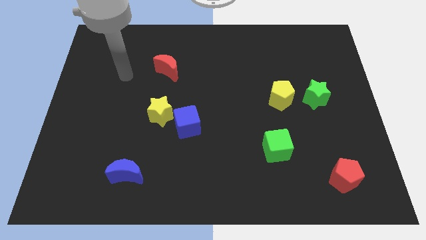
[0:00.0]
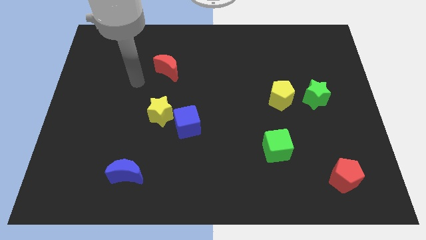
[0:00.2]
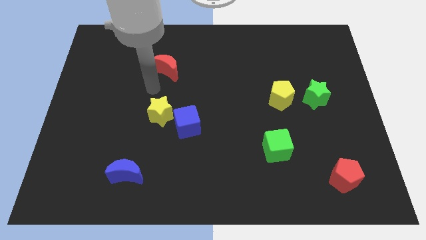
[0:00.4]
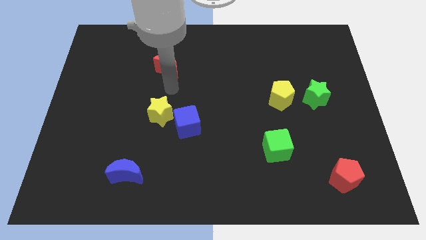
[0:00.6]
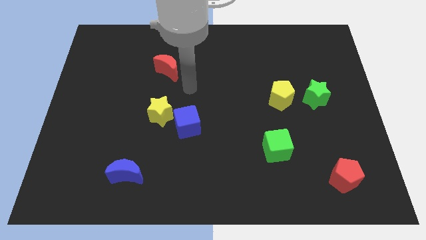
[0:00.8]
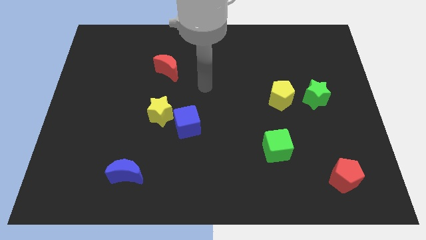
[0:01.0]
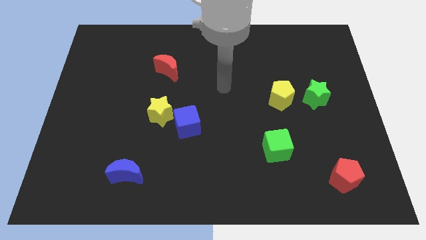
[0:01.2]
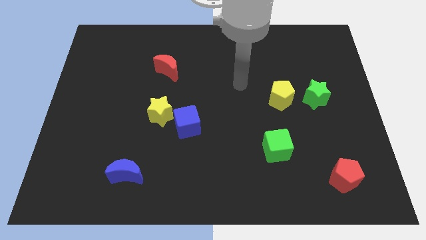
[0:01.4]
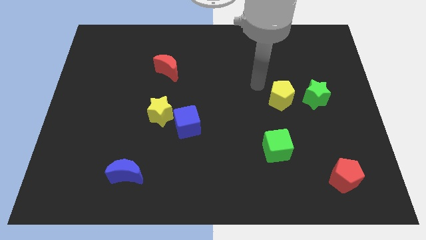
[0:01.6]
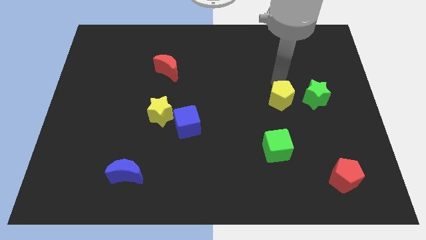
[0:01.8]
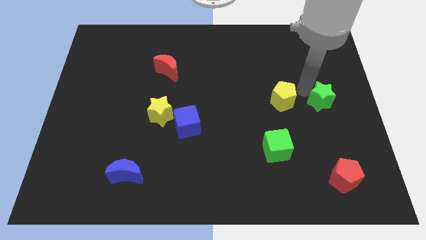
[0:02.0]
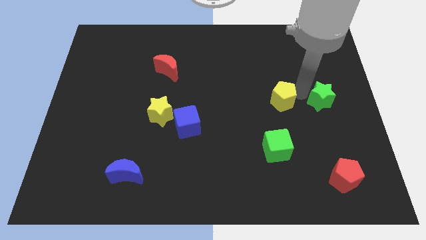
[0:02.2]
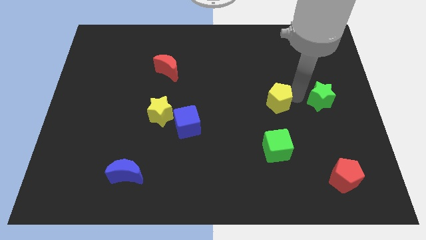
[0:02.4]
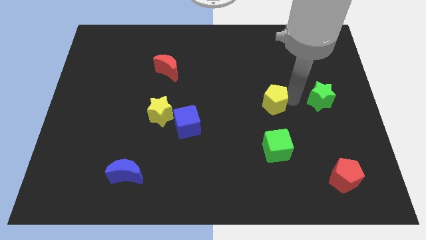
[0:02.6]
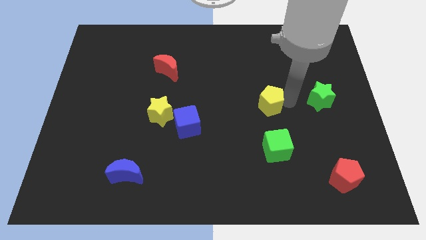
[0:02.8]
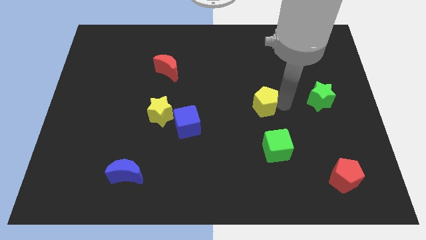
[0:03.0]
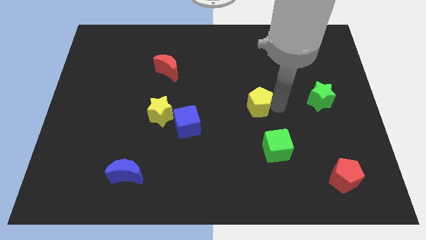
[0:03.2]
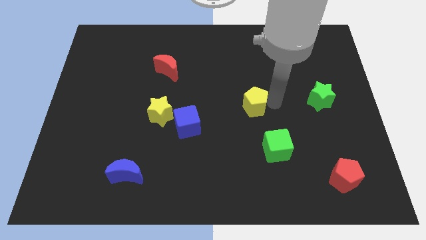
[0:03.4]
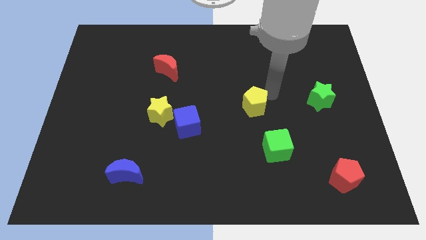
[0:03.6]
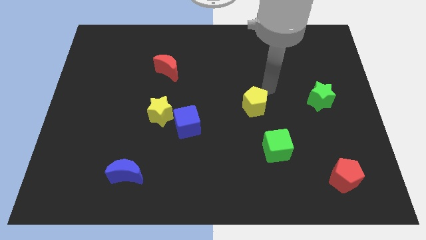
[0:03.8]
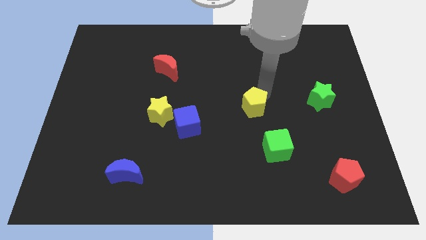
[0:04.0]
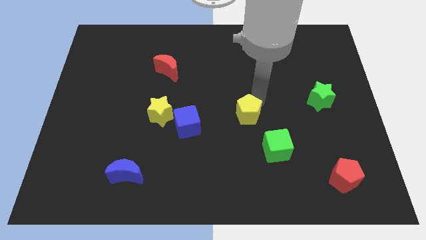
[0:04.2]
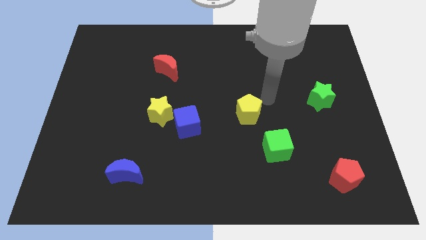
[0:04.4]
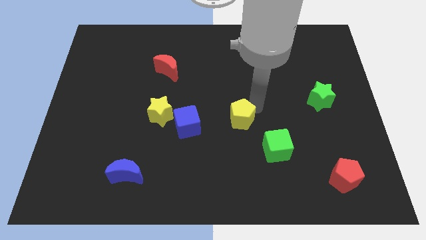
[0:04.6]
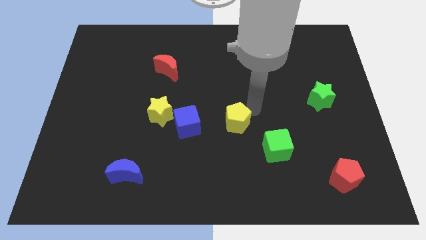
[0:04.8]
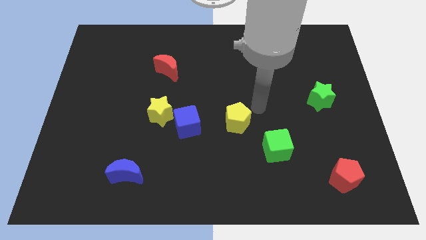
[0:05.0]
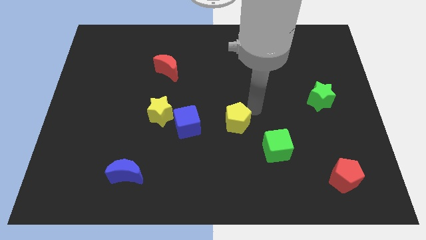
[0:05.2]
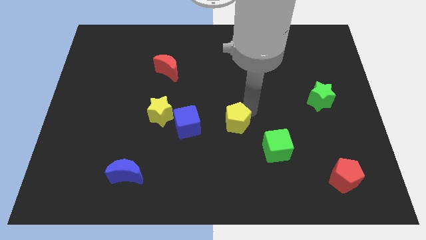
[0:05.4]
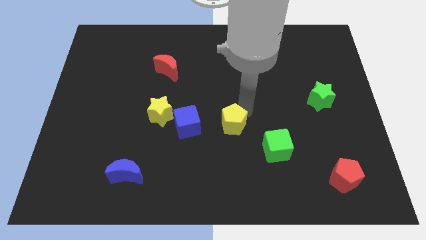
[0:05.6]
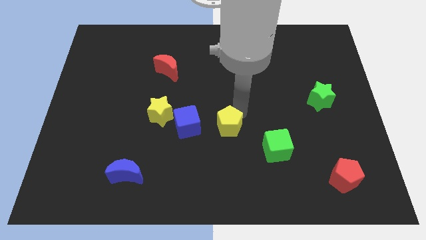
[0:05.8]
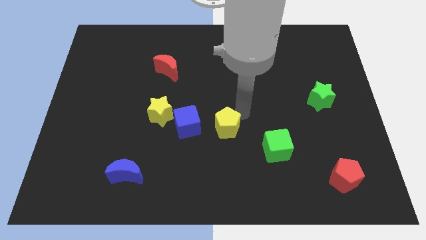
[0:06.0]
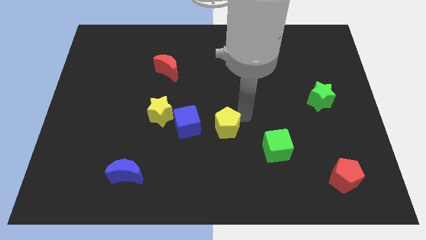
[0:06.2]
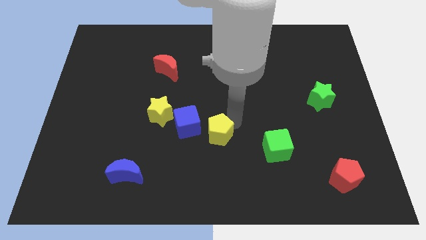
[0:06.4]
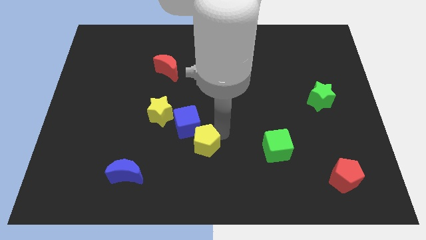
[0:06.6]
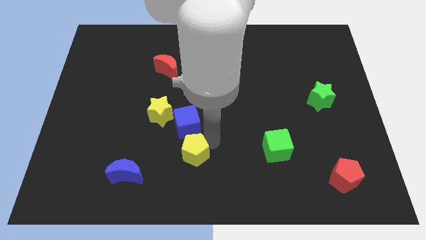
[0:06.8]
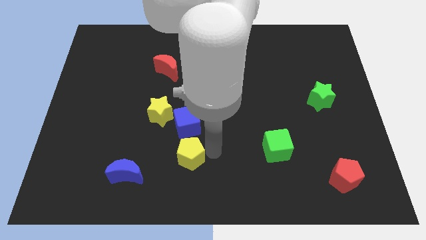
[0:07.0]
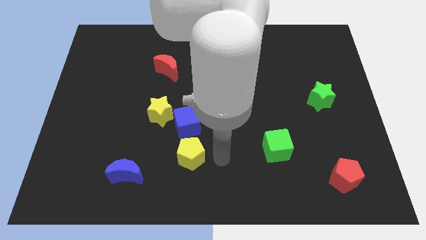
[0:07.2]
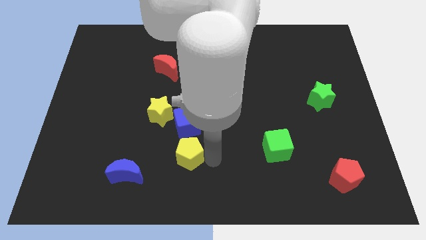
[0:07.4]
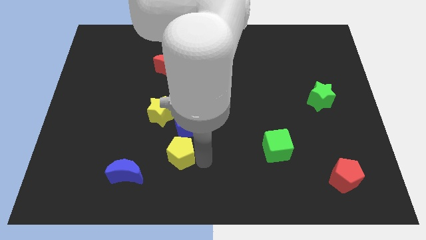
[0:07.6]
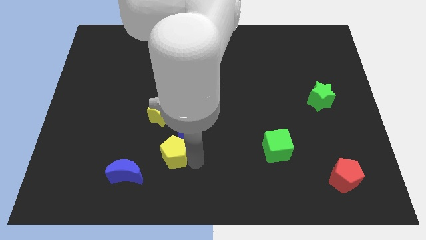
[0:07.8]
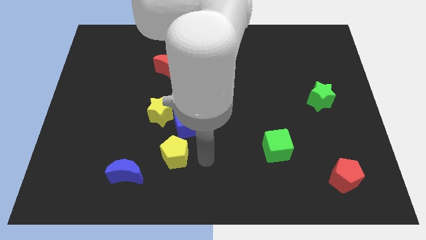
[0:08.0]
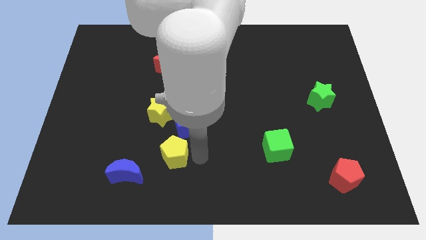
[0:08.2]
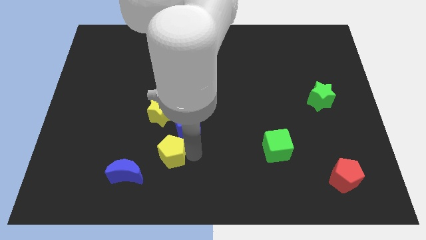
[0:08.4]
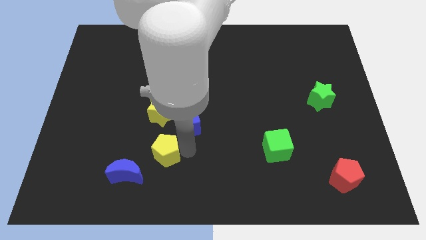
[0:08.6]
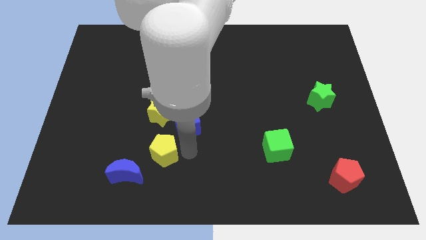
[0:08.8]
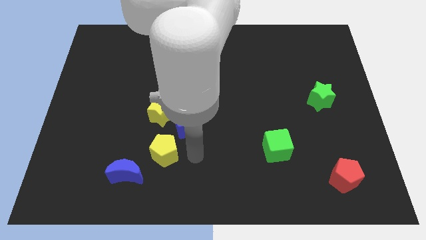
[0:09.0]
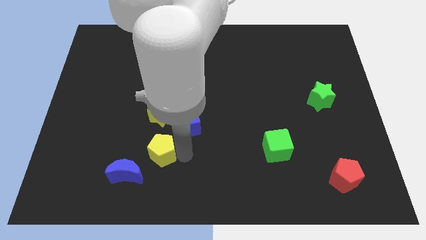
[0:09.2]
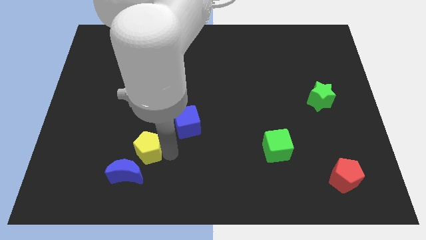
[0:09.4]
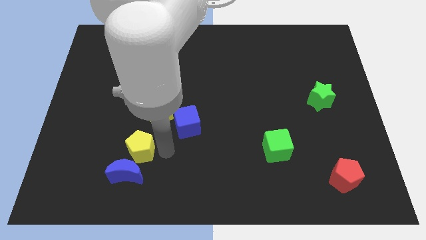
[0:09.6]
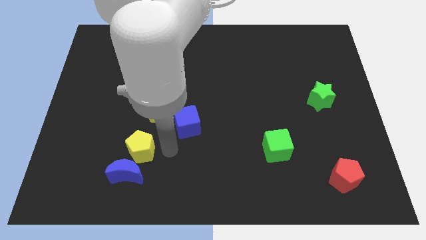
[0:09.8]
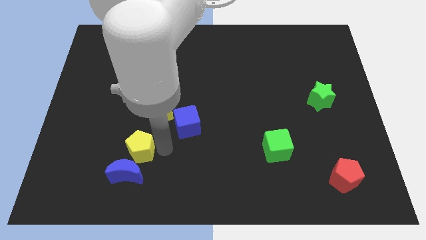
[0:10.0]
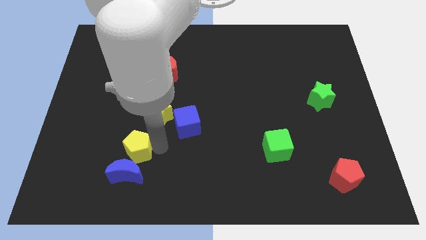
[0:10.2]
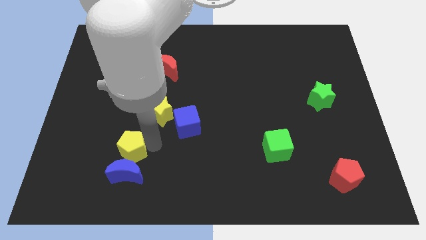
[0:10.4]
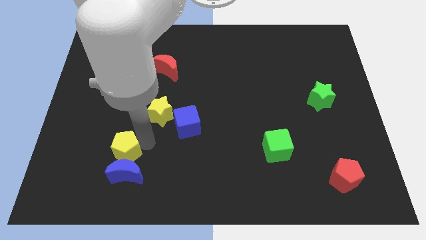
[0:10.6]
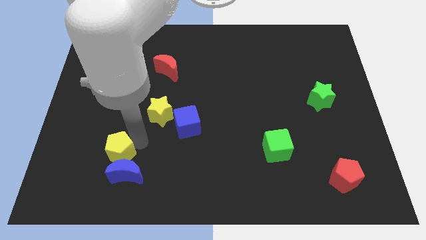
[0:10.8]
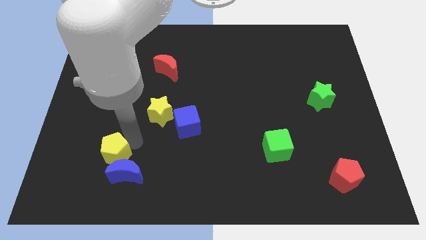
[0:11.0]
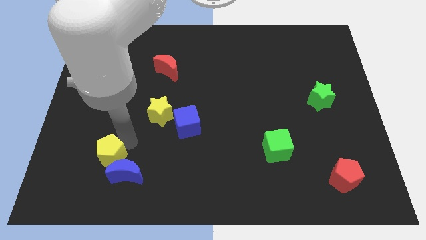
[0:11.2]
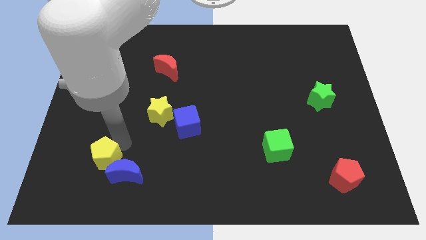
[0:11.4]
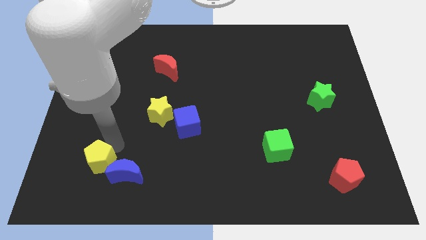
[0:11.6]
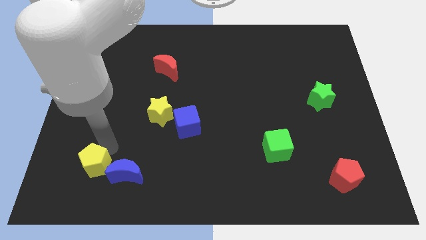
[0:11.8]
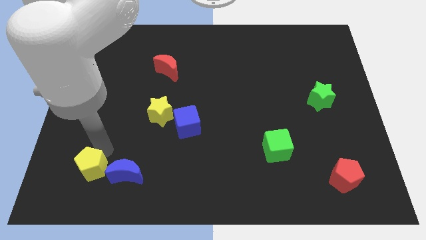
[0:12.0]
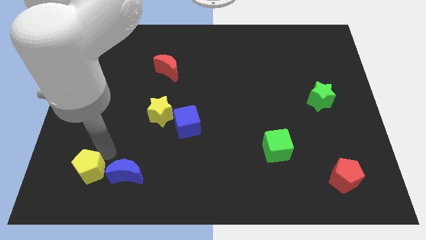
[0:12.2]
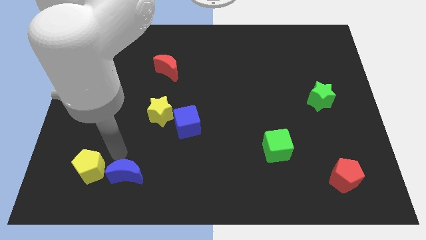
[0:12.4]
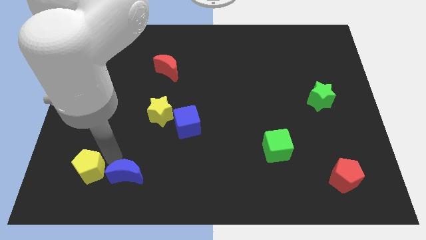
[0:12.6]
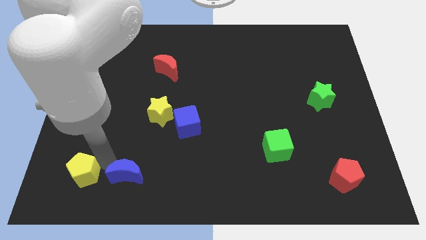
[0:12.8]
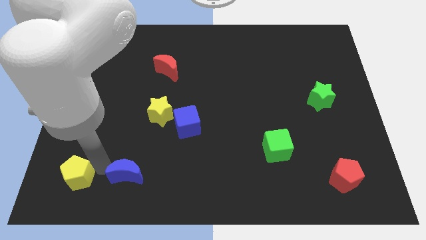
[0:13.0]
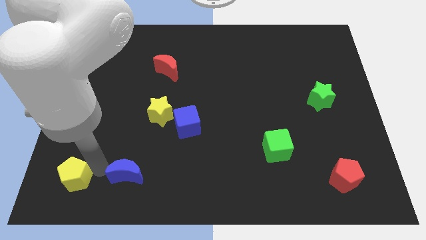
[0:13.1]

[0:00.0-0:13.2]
push the yellow pentagon to the bottom left corner
